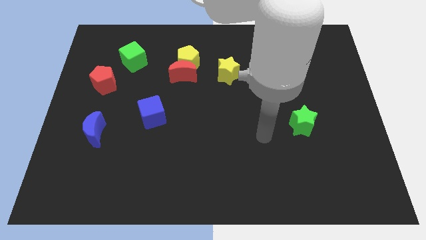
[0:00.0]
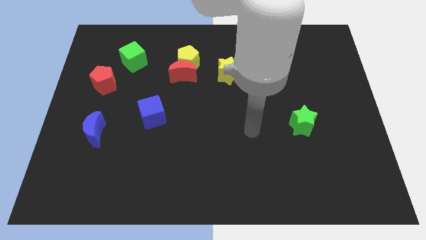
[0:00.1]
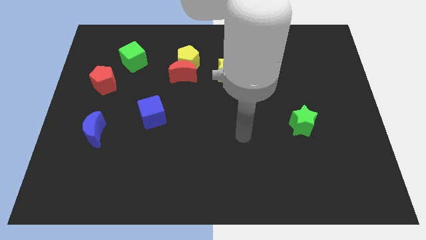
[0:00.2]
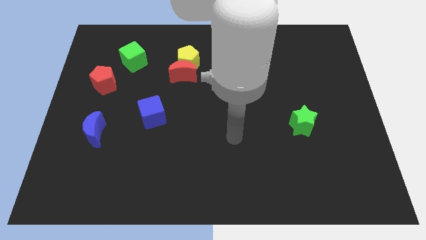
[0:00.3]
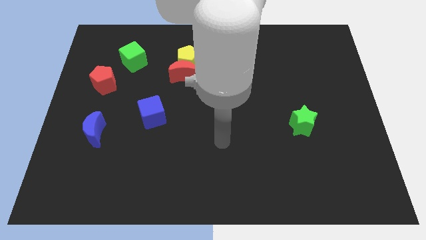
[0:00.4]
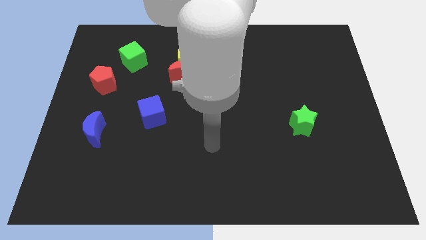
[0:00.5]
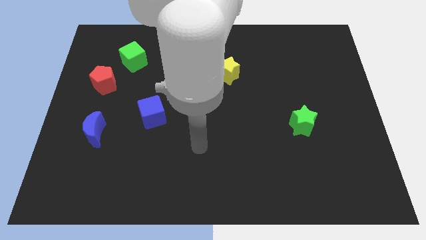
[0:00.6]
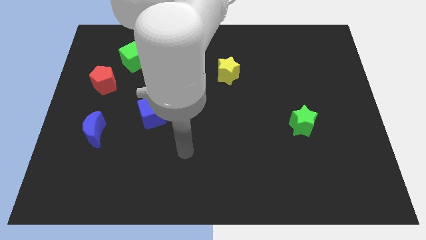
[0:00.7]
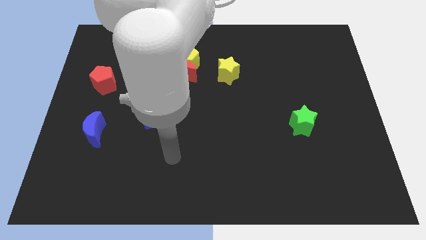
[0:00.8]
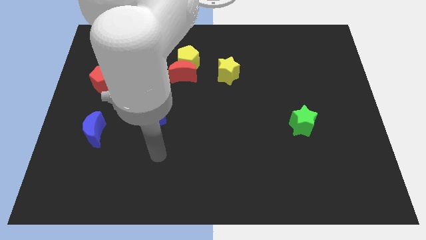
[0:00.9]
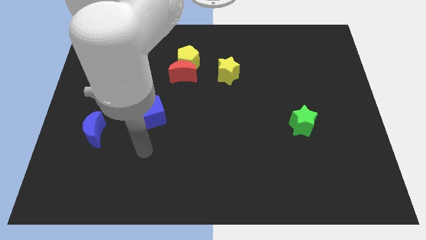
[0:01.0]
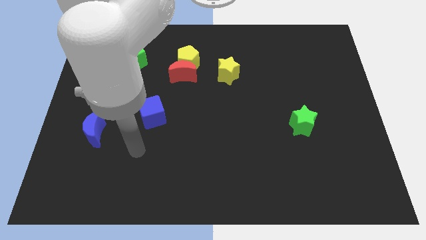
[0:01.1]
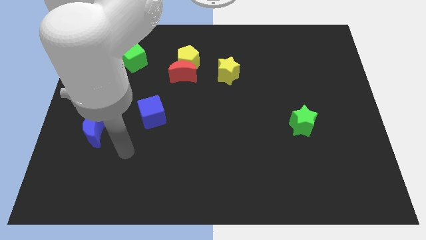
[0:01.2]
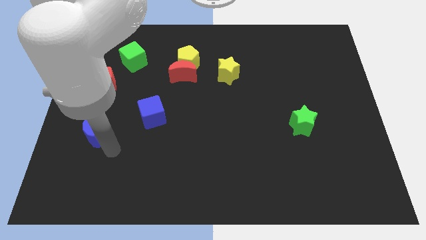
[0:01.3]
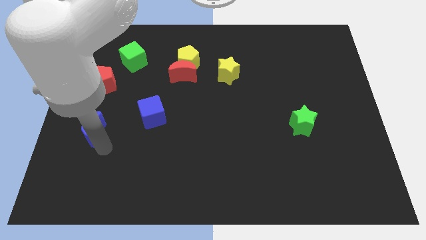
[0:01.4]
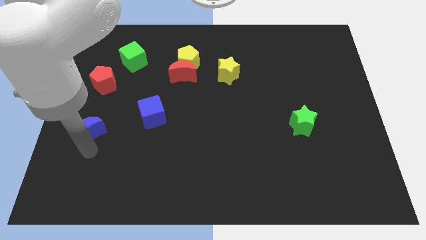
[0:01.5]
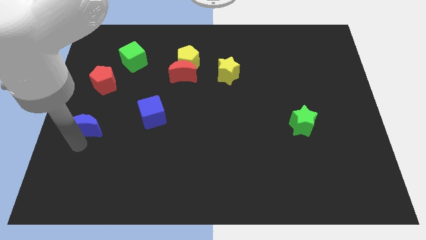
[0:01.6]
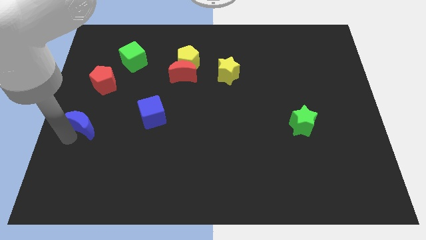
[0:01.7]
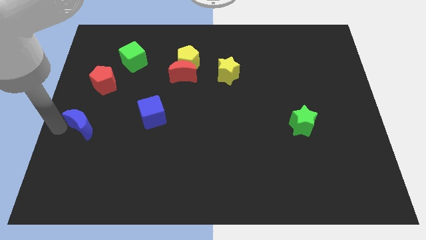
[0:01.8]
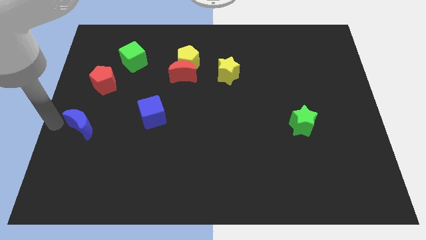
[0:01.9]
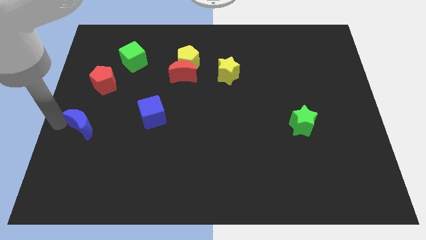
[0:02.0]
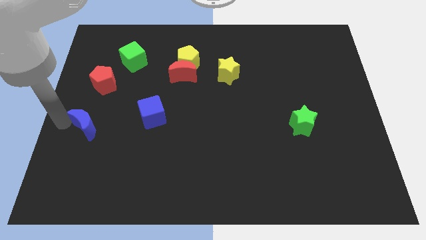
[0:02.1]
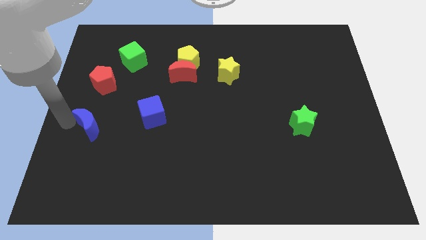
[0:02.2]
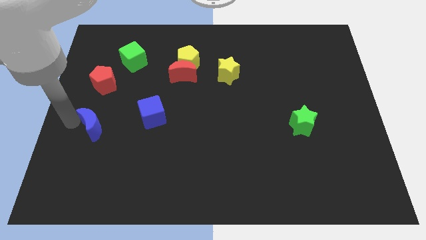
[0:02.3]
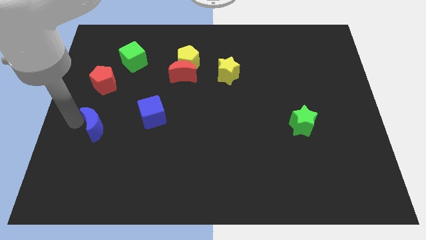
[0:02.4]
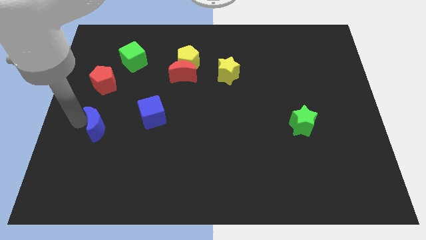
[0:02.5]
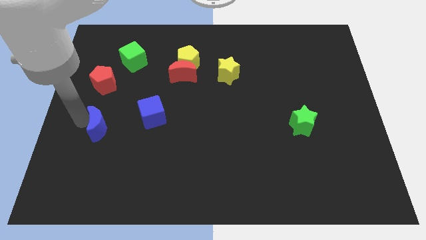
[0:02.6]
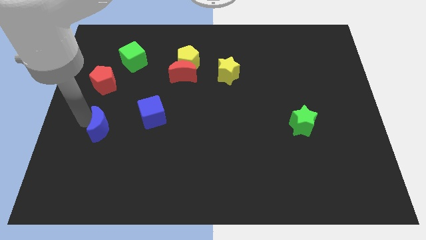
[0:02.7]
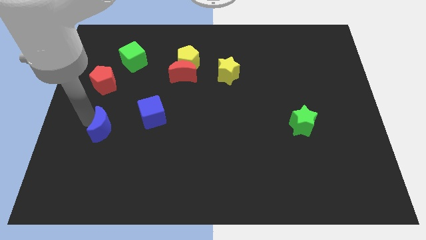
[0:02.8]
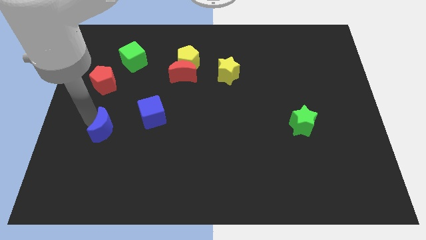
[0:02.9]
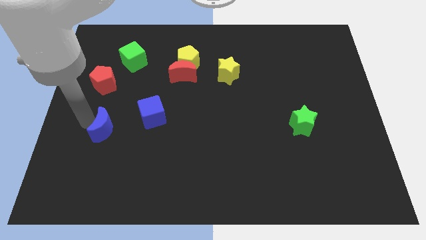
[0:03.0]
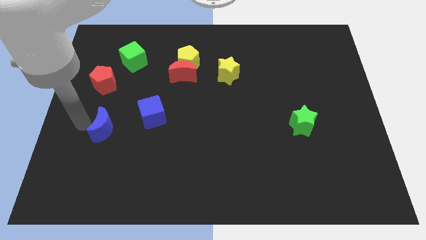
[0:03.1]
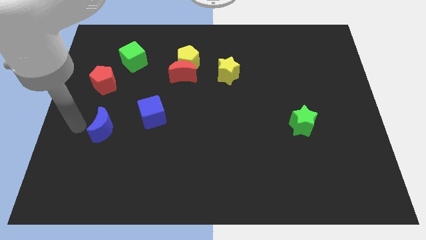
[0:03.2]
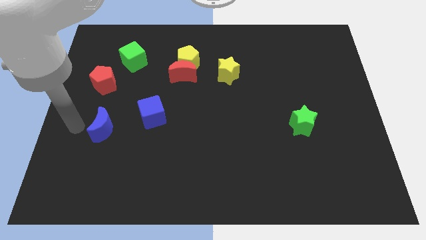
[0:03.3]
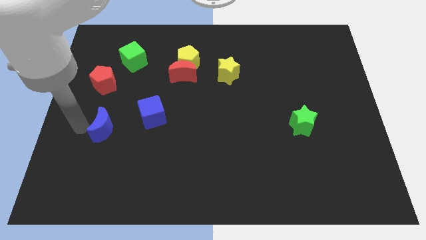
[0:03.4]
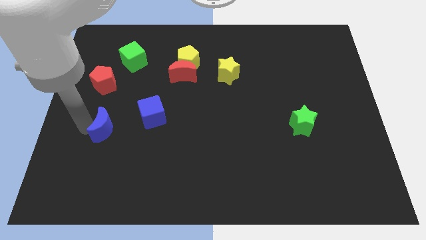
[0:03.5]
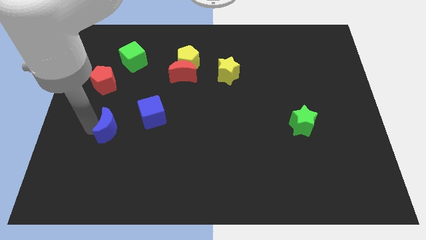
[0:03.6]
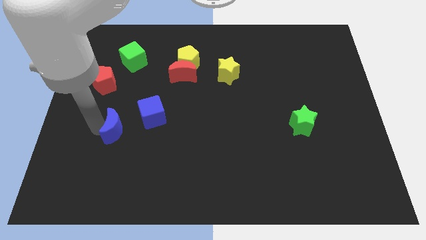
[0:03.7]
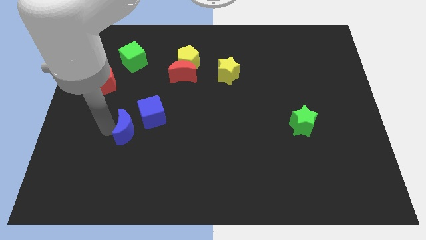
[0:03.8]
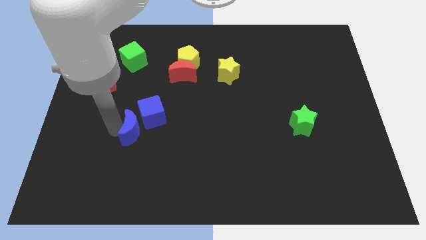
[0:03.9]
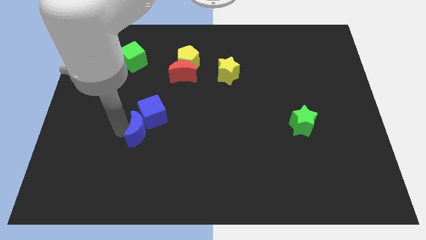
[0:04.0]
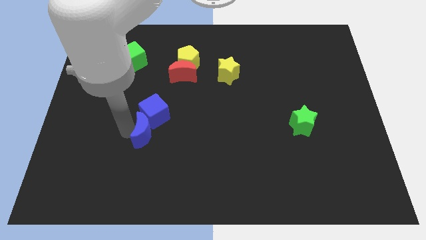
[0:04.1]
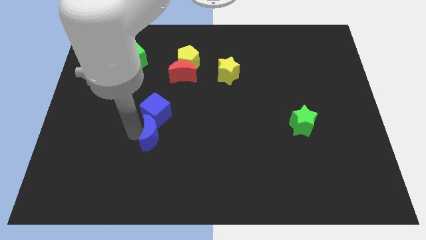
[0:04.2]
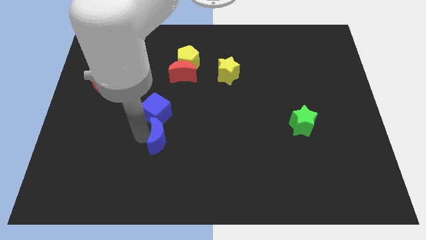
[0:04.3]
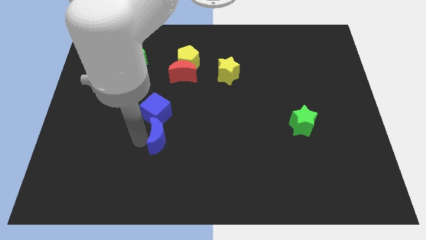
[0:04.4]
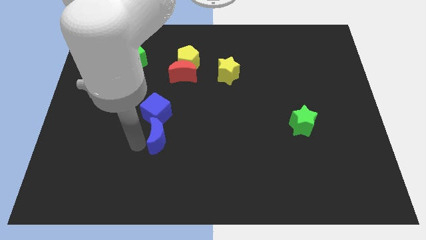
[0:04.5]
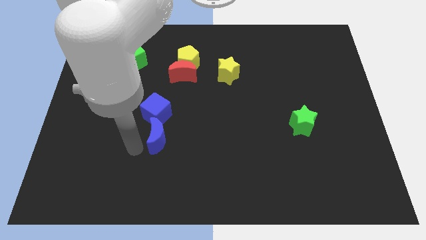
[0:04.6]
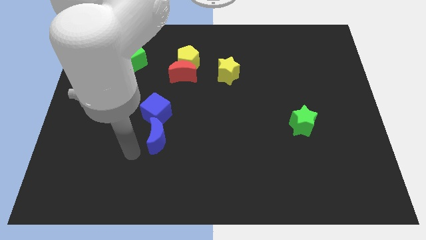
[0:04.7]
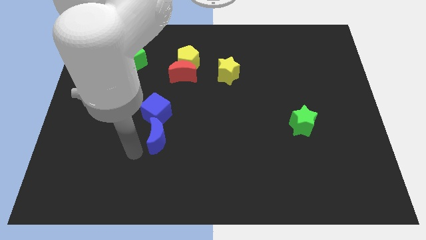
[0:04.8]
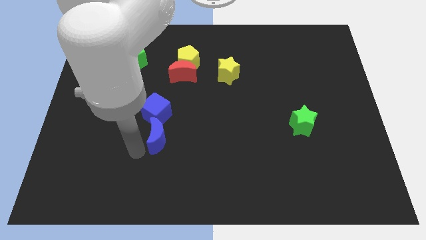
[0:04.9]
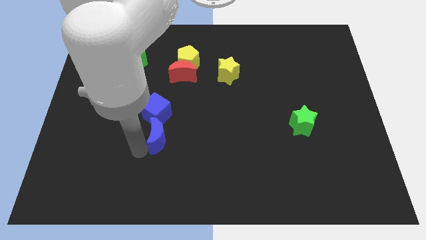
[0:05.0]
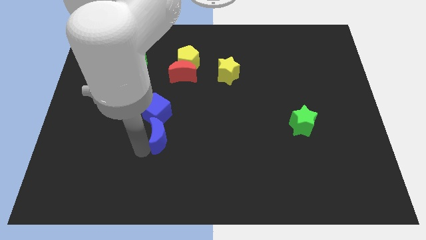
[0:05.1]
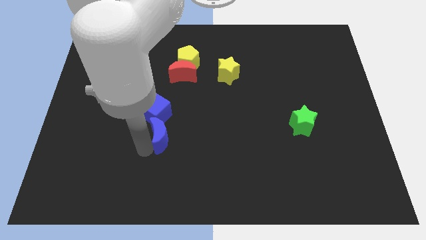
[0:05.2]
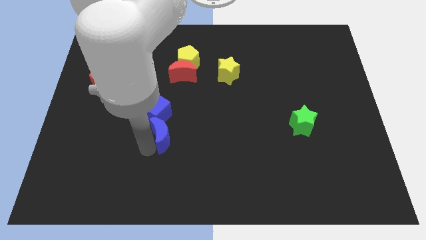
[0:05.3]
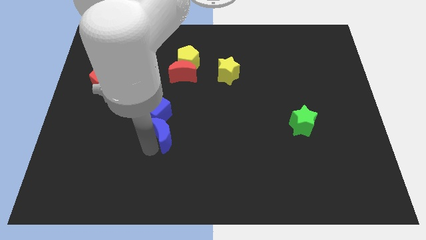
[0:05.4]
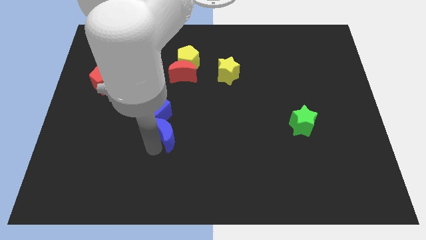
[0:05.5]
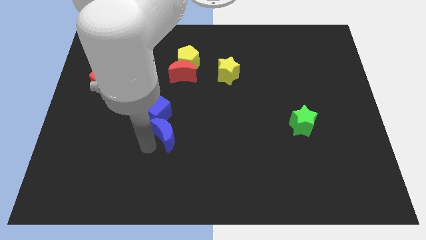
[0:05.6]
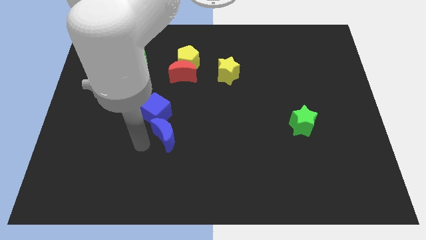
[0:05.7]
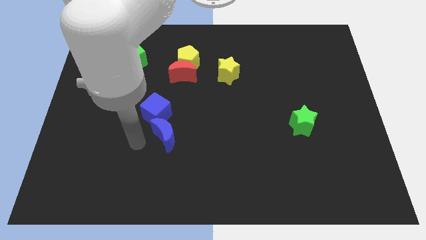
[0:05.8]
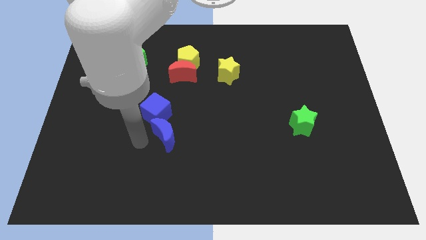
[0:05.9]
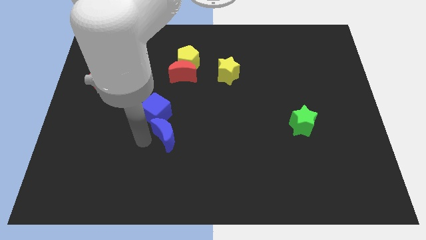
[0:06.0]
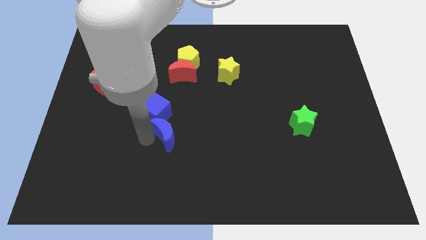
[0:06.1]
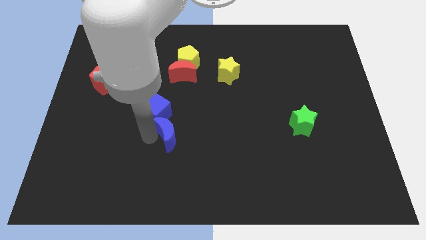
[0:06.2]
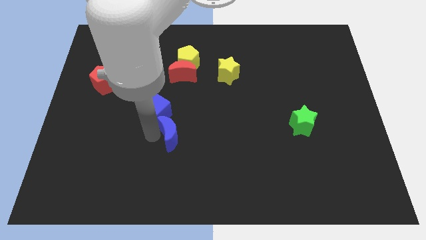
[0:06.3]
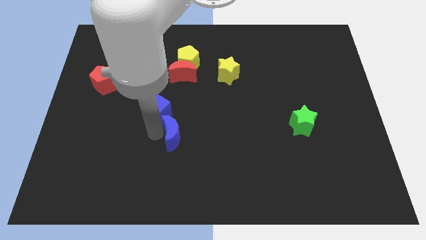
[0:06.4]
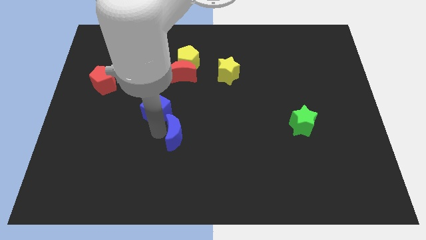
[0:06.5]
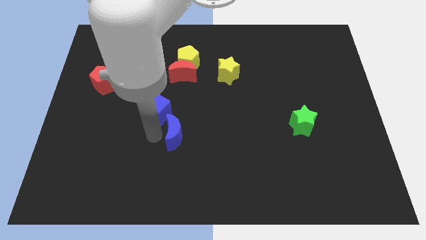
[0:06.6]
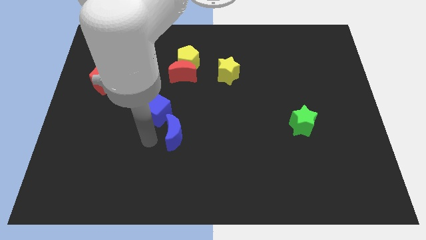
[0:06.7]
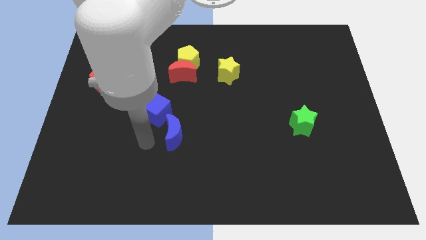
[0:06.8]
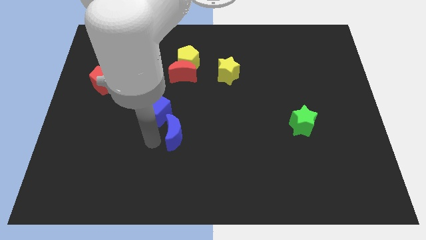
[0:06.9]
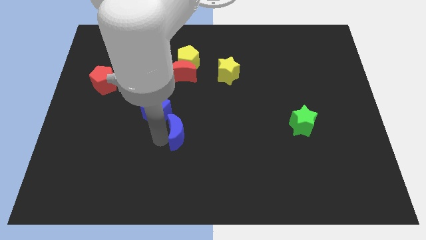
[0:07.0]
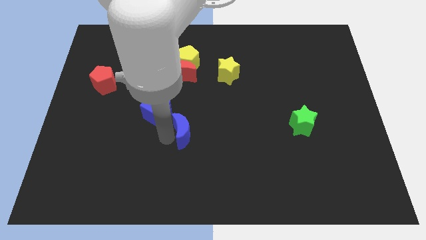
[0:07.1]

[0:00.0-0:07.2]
slide the blue moon right

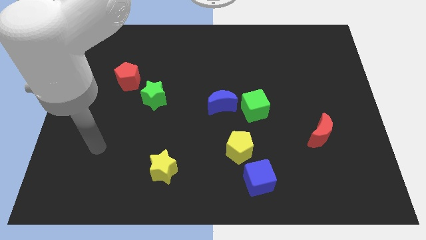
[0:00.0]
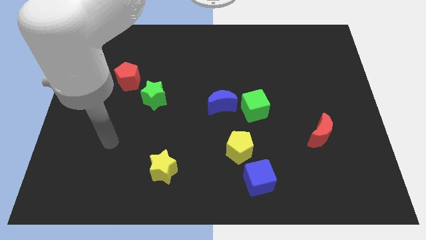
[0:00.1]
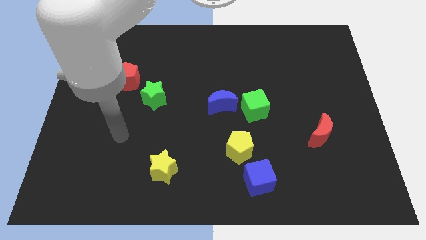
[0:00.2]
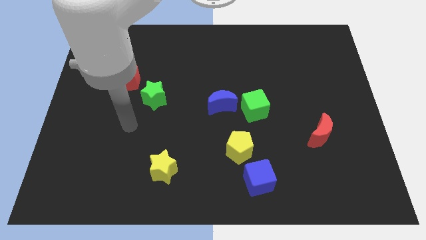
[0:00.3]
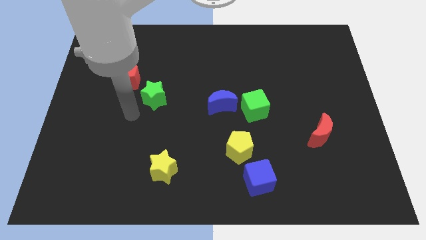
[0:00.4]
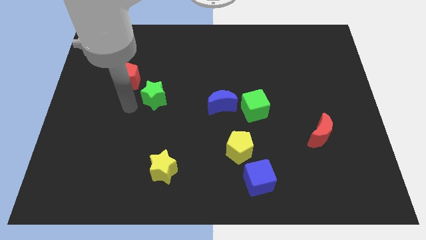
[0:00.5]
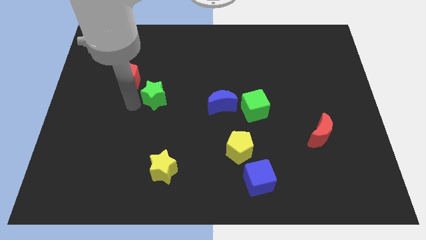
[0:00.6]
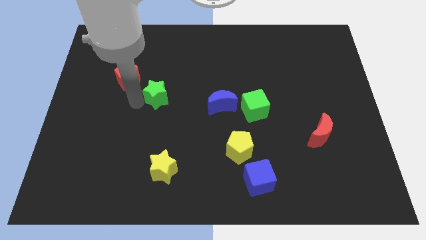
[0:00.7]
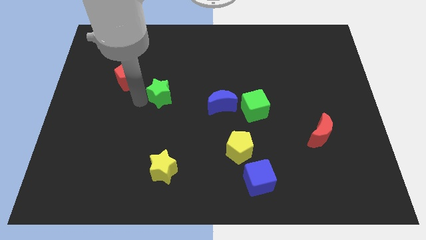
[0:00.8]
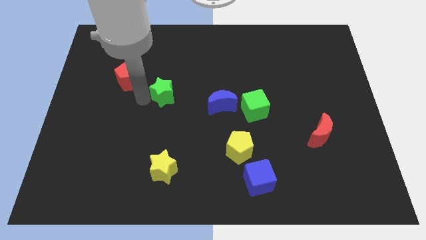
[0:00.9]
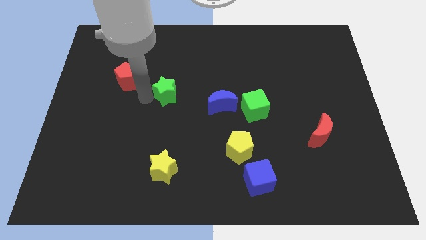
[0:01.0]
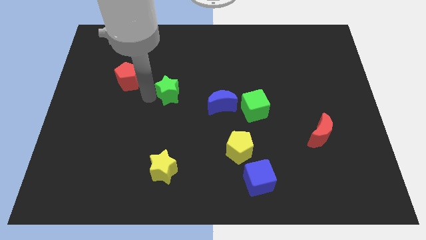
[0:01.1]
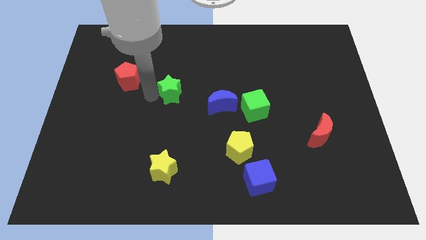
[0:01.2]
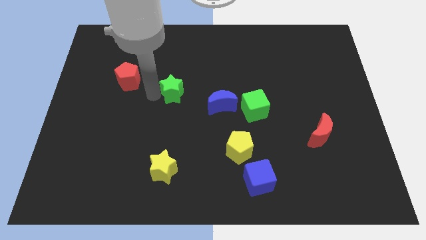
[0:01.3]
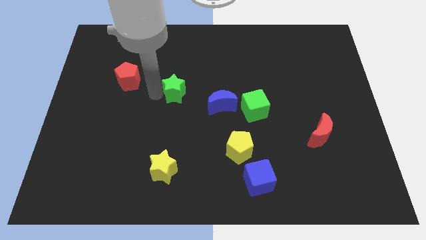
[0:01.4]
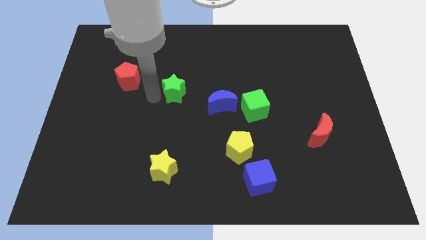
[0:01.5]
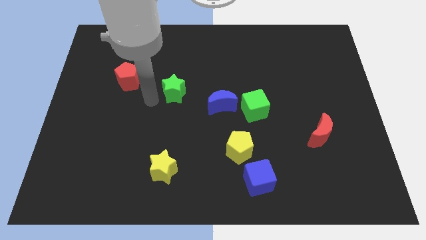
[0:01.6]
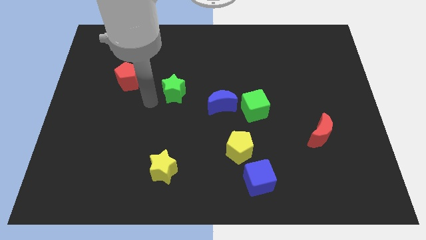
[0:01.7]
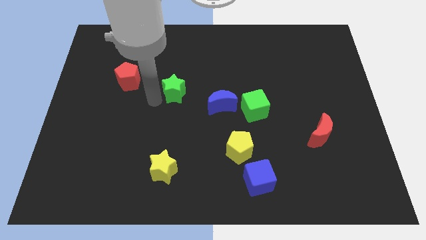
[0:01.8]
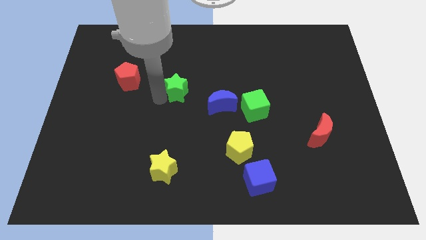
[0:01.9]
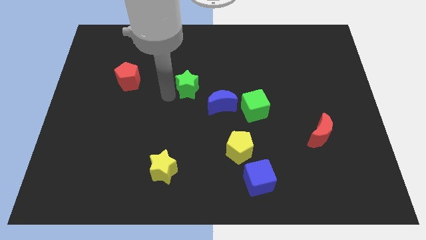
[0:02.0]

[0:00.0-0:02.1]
move the green star a little bit to the right
